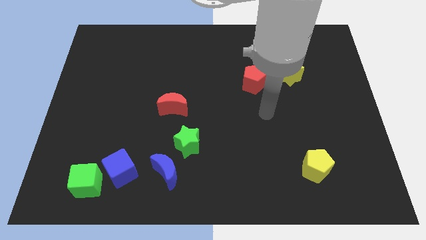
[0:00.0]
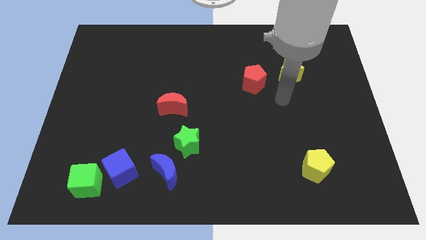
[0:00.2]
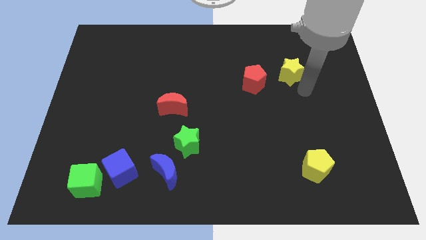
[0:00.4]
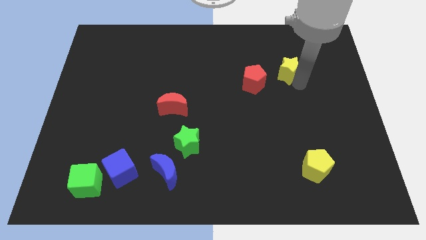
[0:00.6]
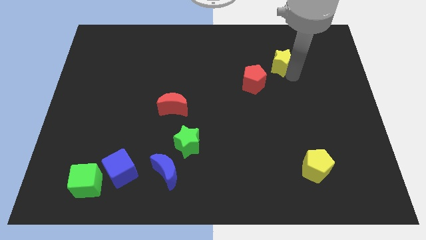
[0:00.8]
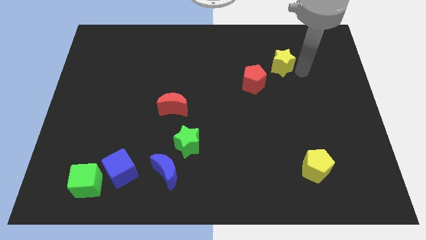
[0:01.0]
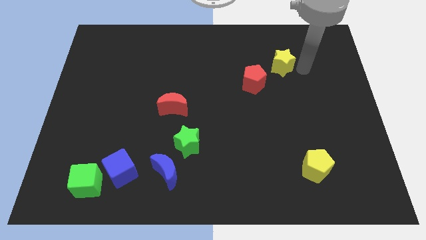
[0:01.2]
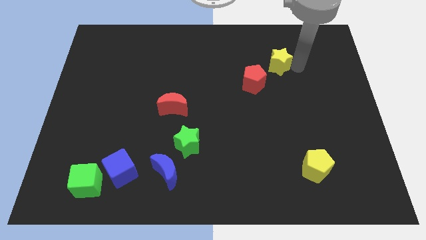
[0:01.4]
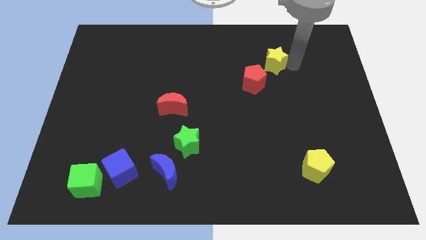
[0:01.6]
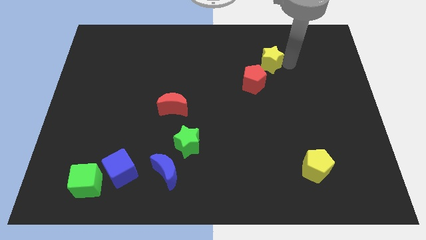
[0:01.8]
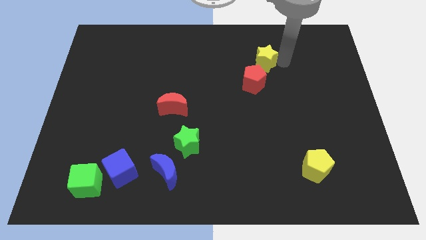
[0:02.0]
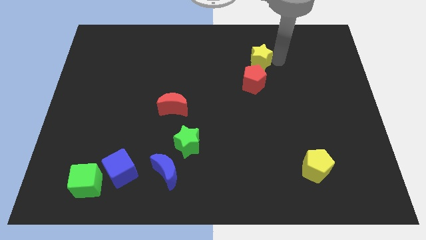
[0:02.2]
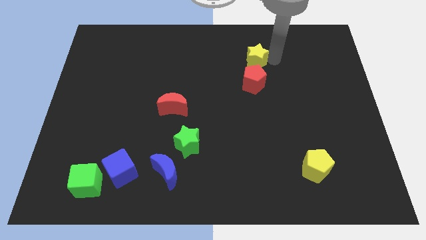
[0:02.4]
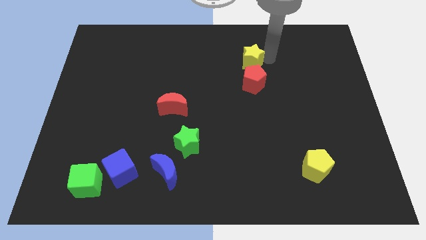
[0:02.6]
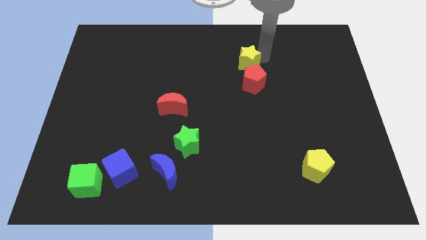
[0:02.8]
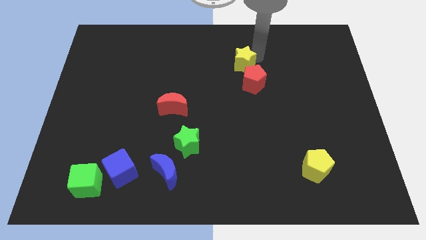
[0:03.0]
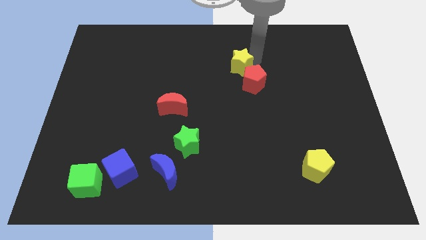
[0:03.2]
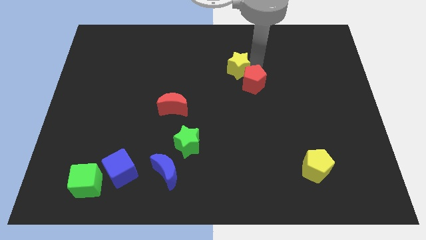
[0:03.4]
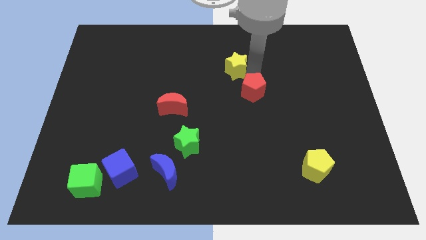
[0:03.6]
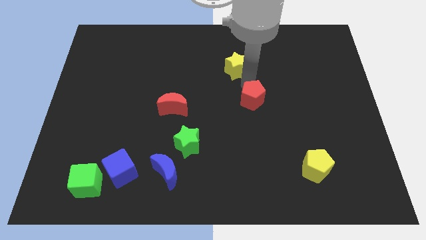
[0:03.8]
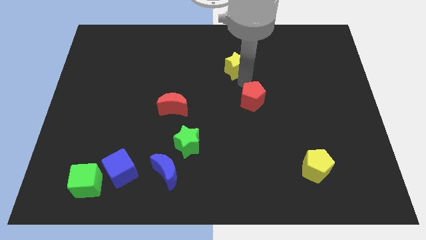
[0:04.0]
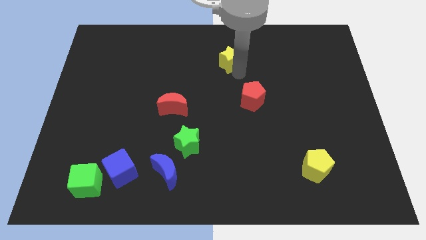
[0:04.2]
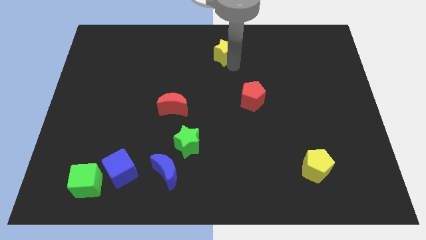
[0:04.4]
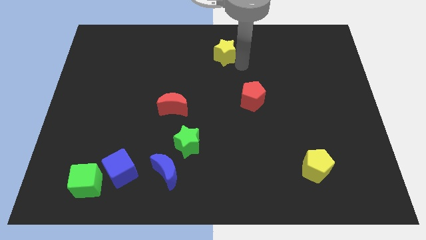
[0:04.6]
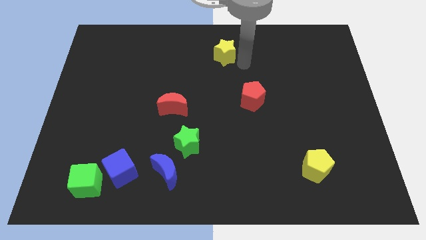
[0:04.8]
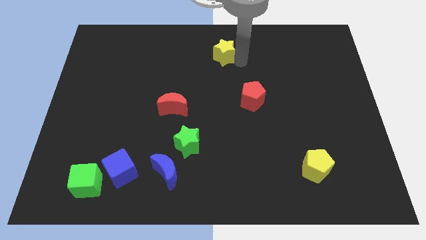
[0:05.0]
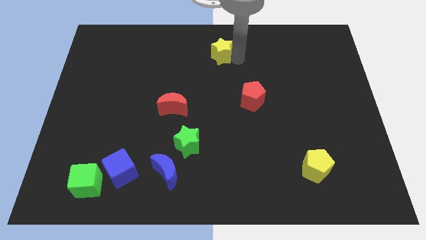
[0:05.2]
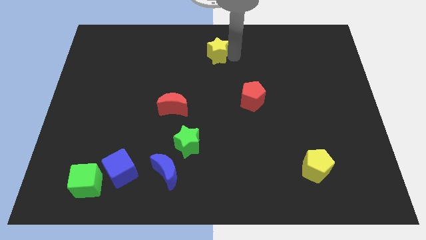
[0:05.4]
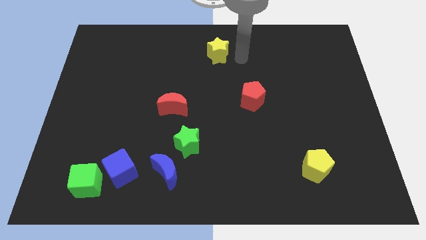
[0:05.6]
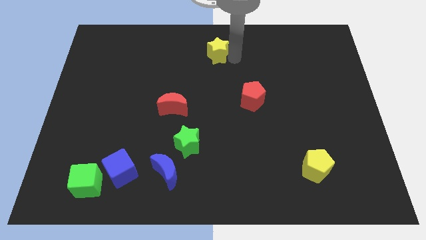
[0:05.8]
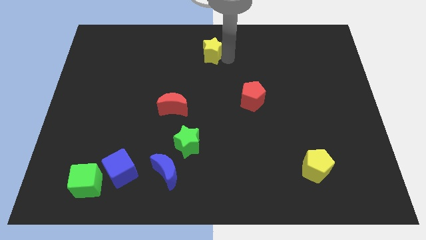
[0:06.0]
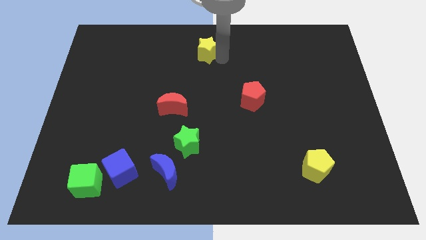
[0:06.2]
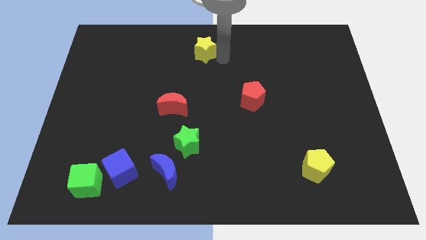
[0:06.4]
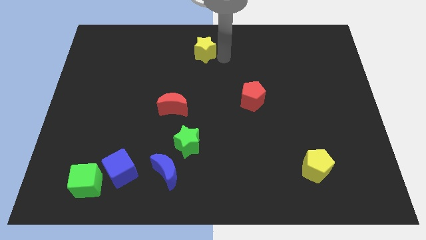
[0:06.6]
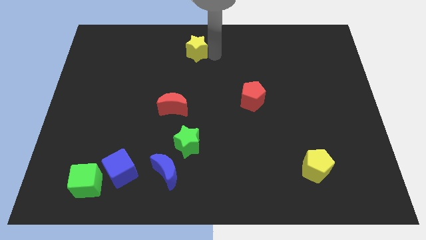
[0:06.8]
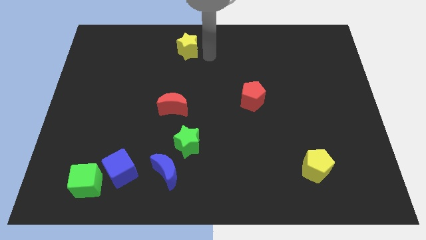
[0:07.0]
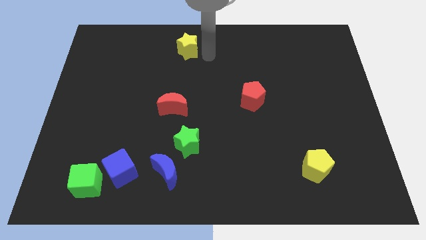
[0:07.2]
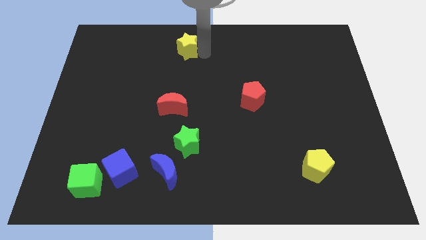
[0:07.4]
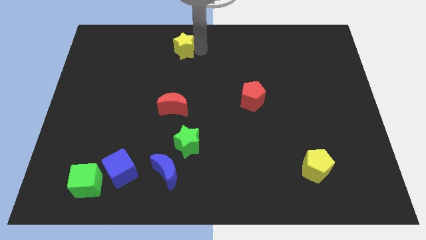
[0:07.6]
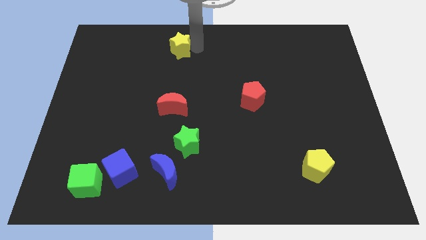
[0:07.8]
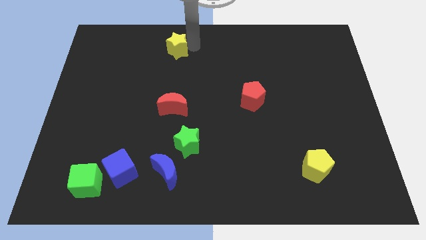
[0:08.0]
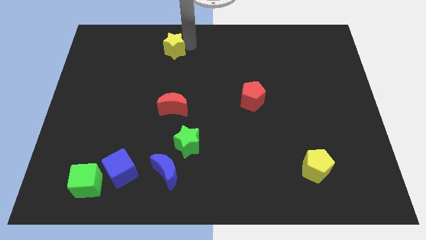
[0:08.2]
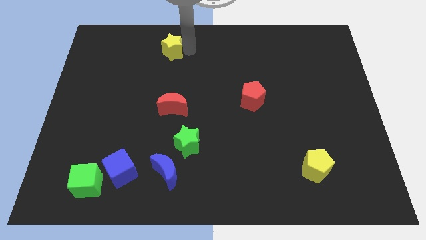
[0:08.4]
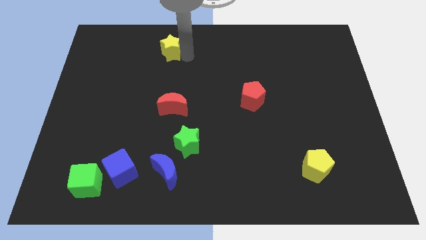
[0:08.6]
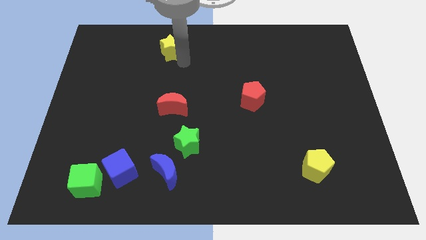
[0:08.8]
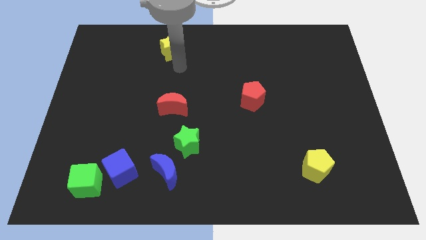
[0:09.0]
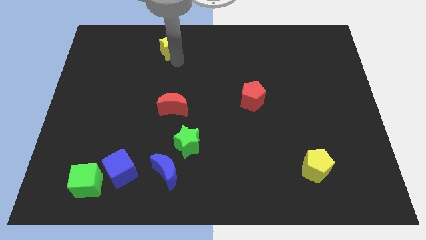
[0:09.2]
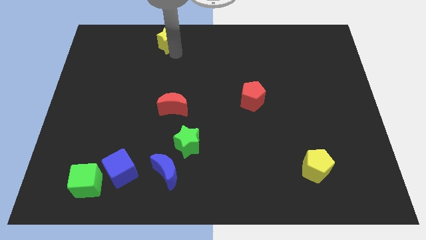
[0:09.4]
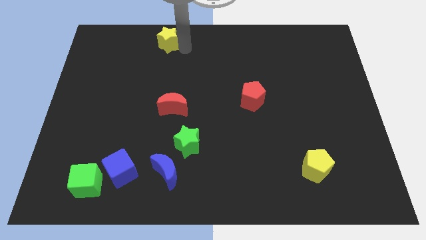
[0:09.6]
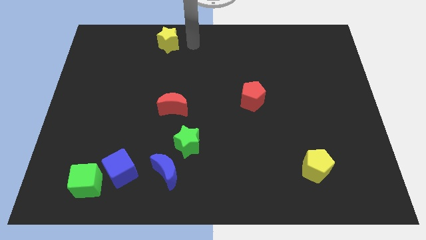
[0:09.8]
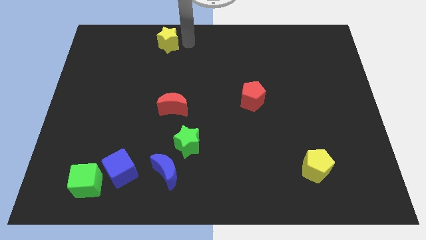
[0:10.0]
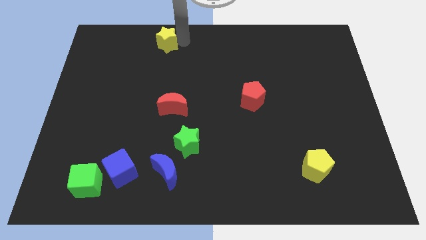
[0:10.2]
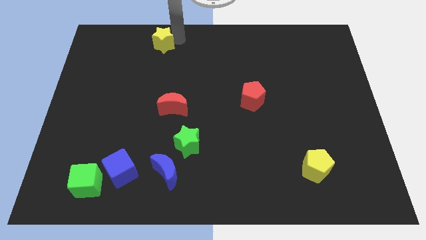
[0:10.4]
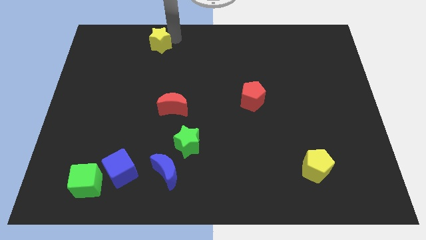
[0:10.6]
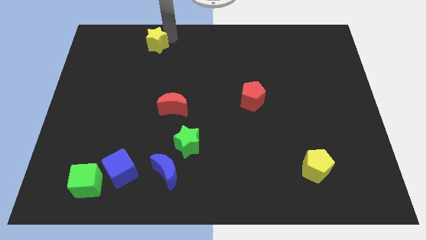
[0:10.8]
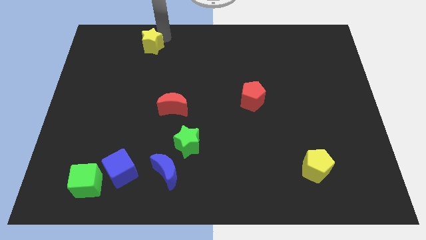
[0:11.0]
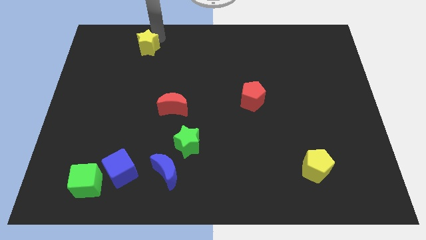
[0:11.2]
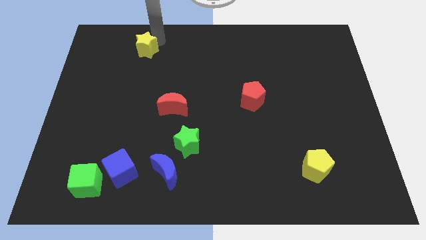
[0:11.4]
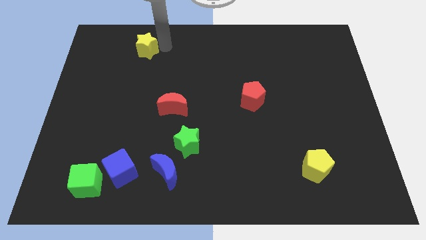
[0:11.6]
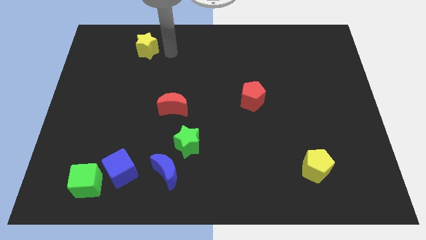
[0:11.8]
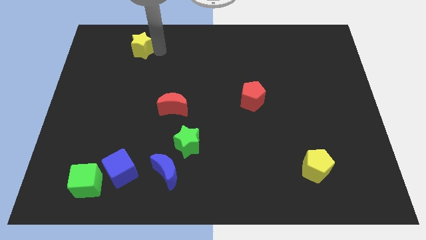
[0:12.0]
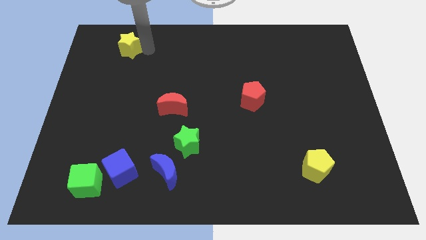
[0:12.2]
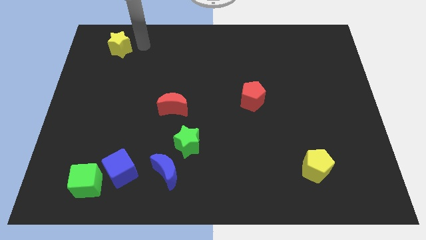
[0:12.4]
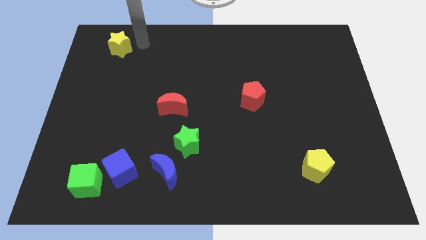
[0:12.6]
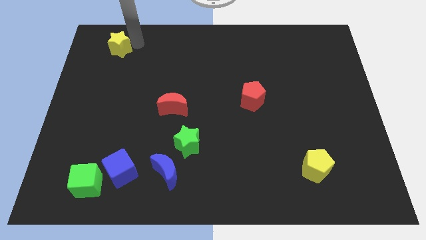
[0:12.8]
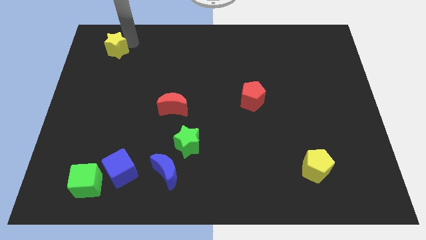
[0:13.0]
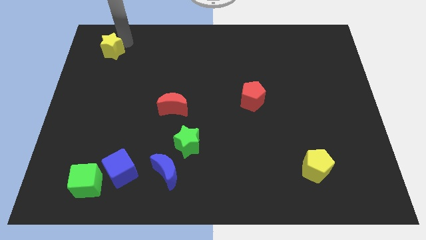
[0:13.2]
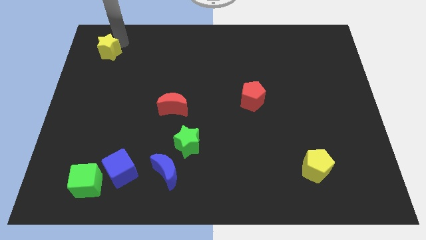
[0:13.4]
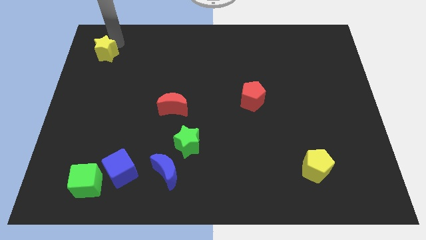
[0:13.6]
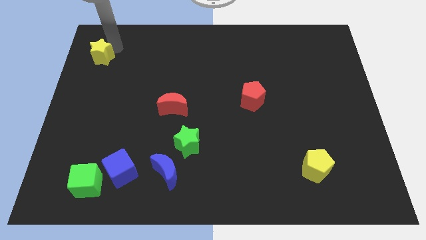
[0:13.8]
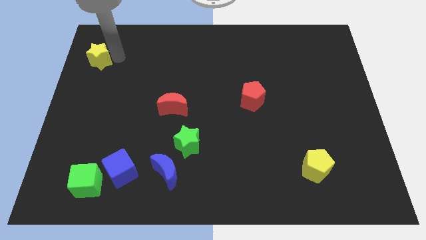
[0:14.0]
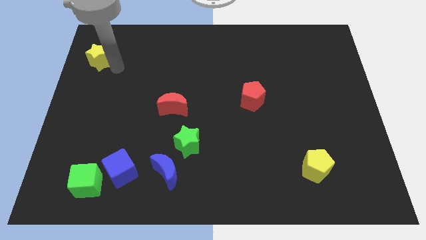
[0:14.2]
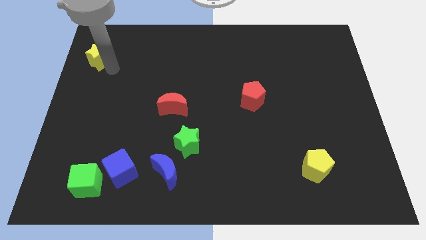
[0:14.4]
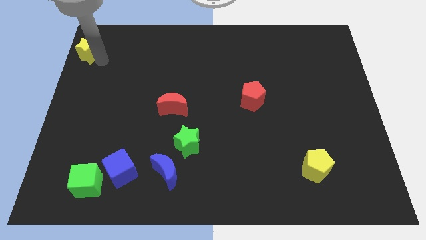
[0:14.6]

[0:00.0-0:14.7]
push the yellow star to the top left of the board
